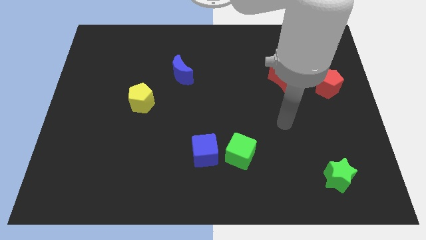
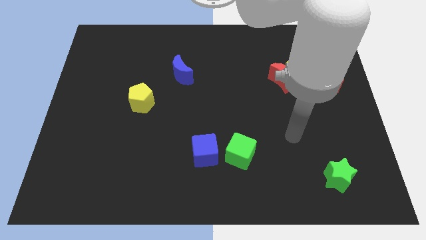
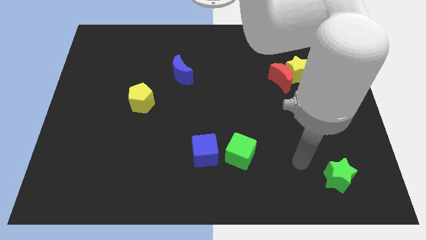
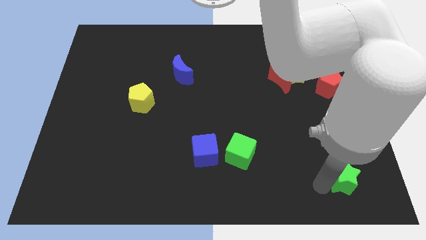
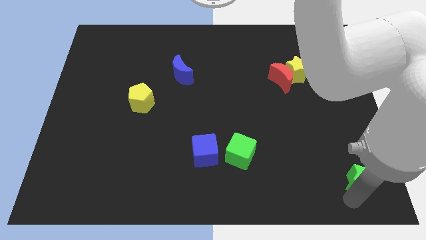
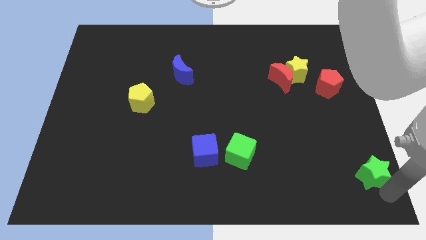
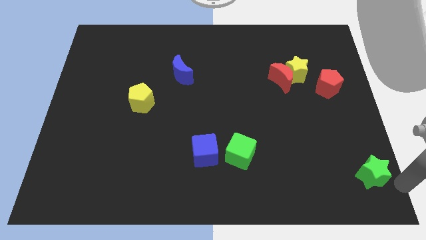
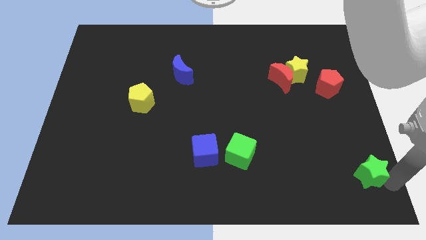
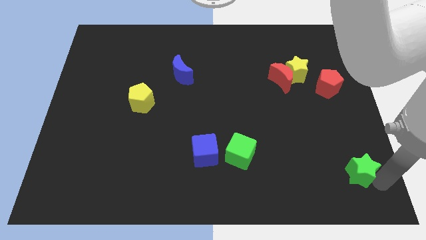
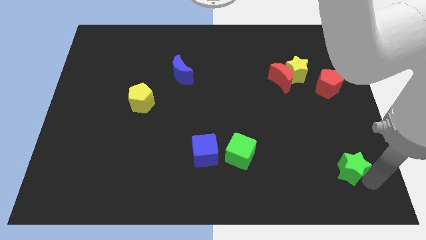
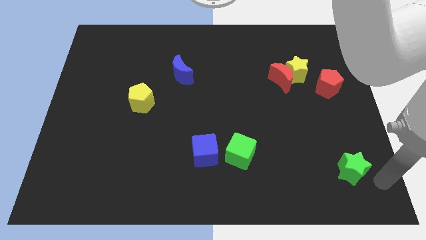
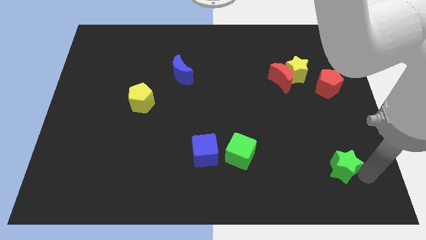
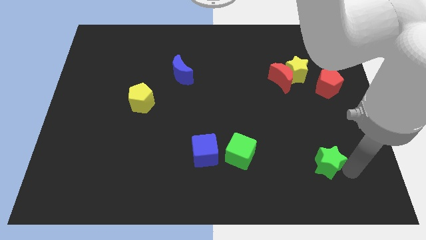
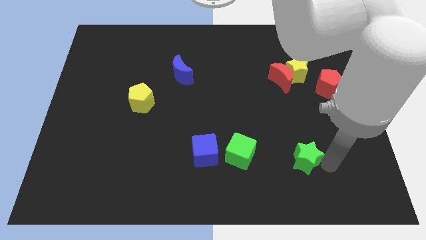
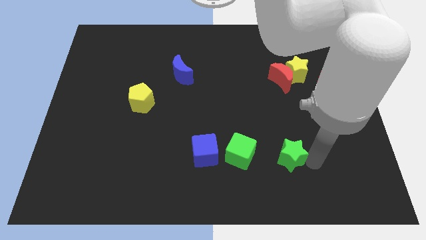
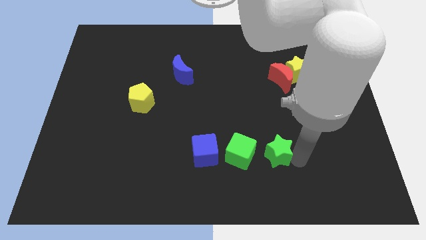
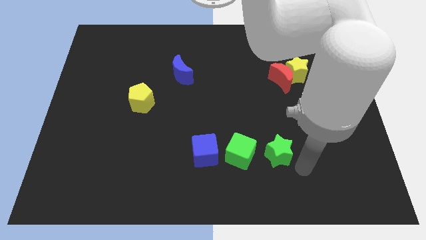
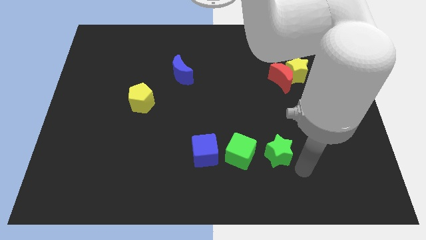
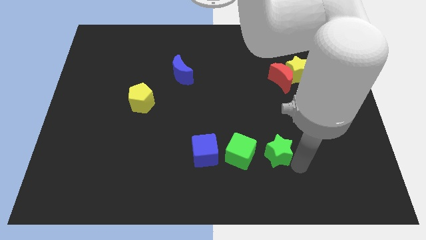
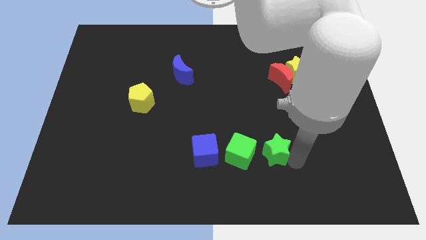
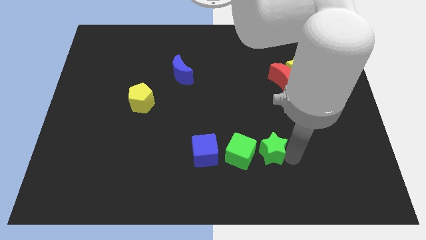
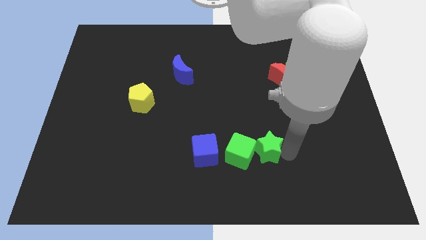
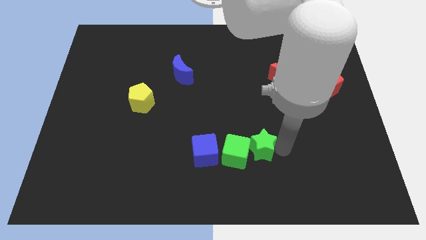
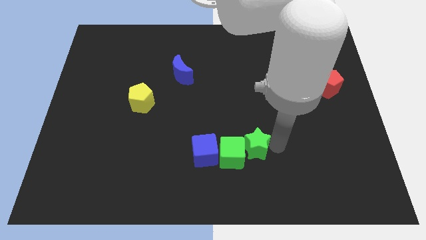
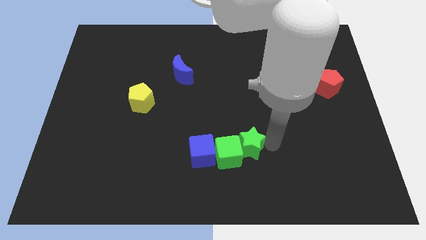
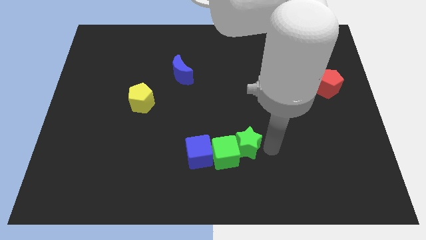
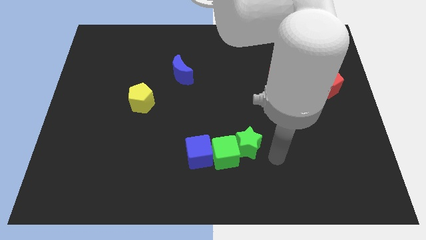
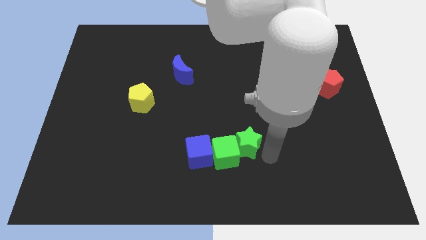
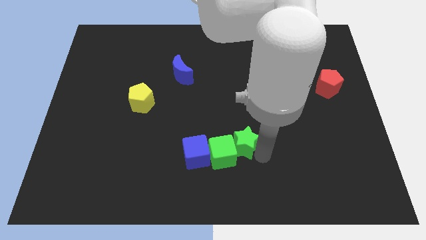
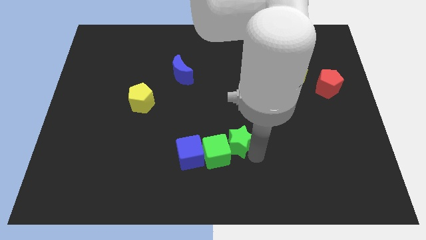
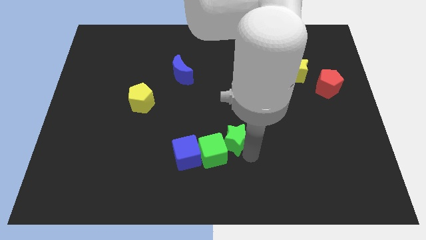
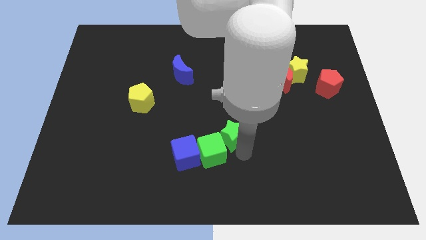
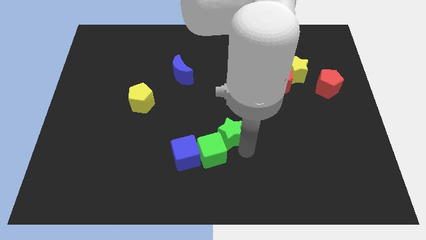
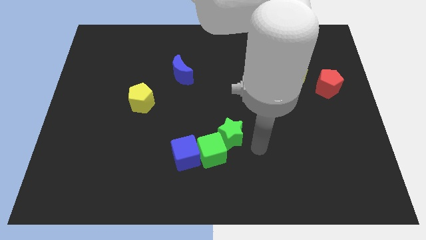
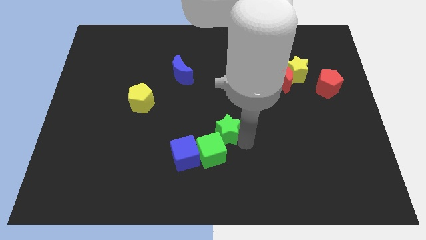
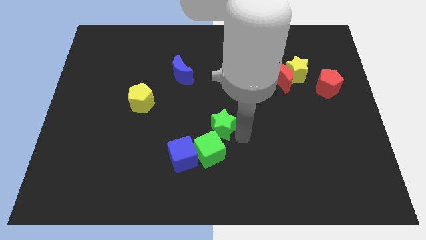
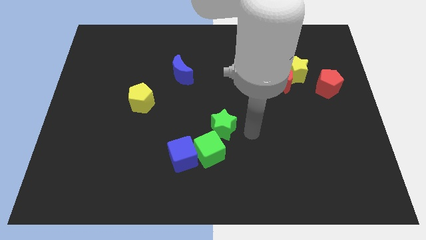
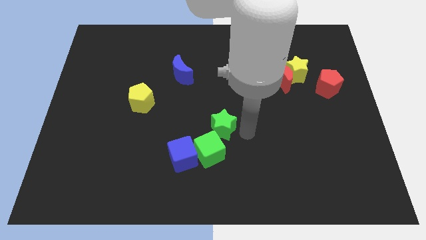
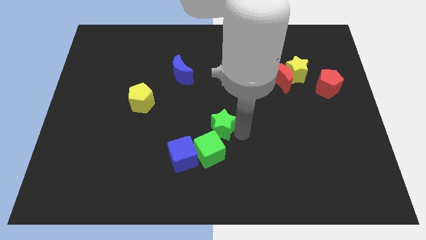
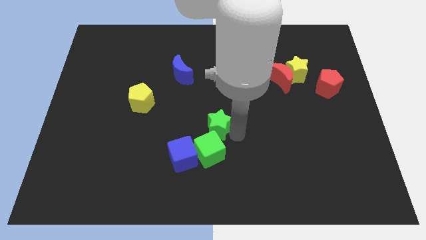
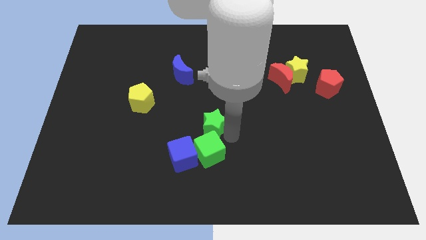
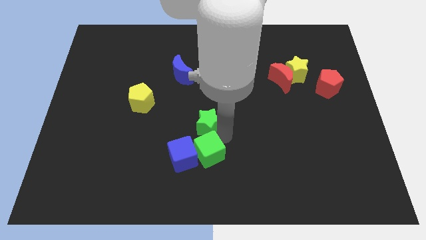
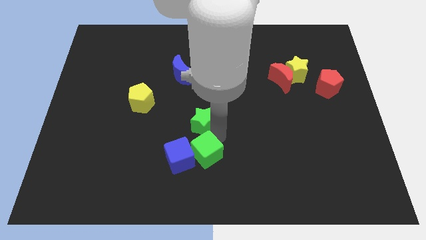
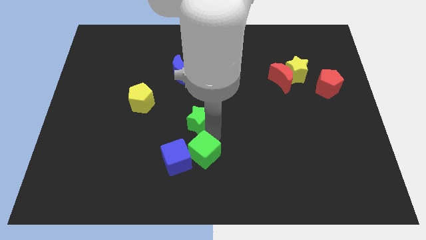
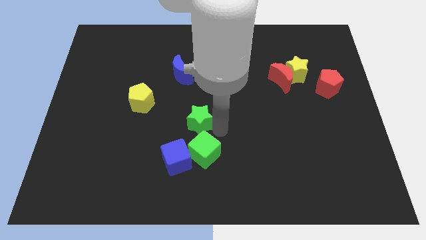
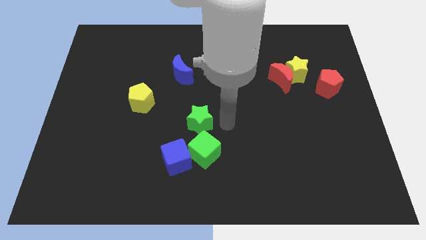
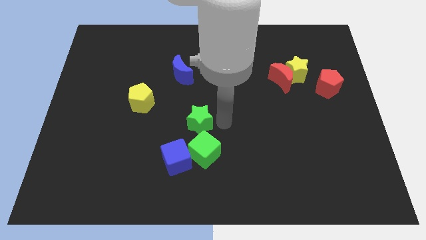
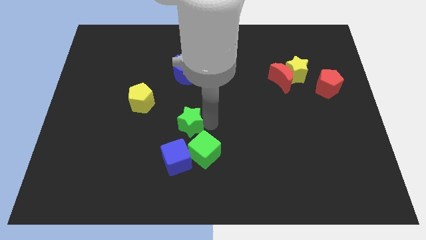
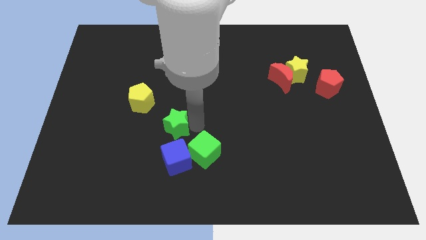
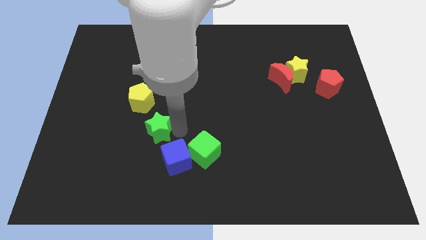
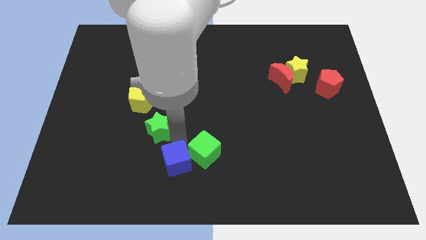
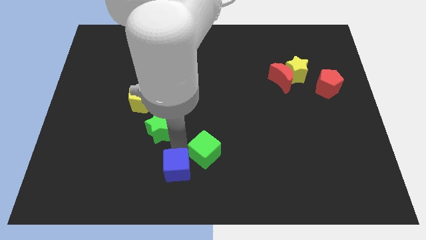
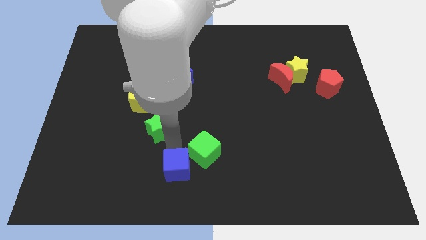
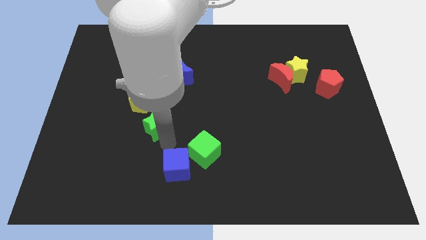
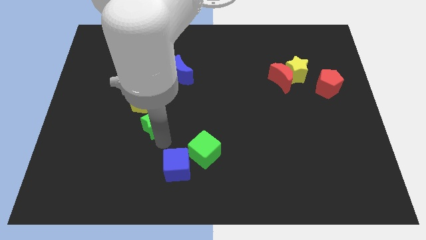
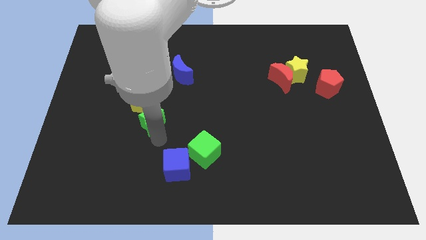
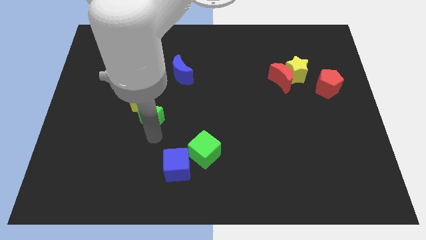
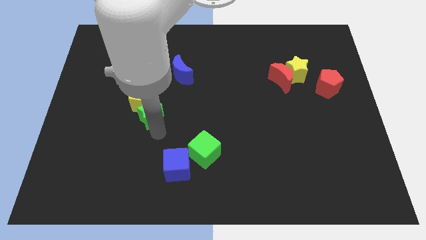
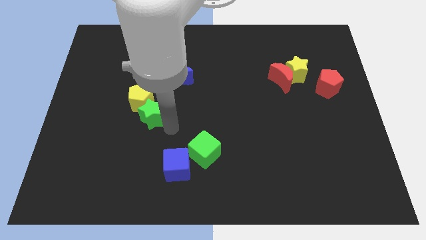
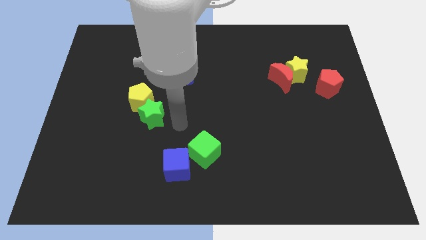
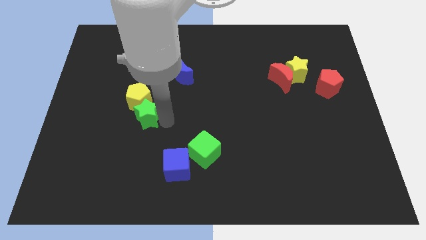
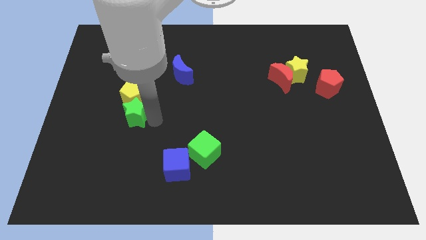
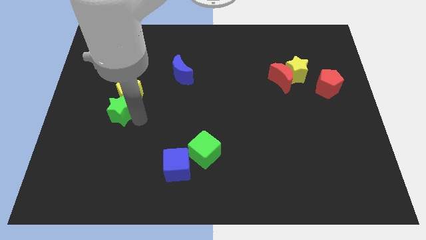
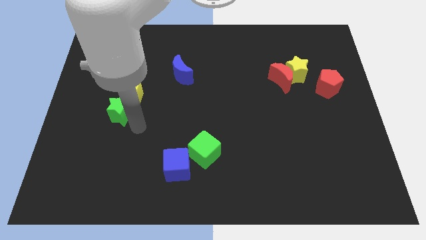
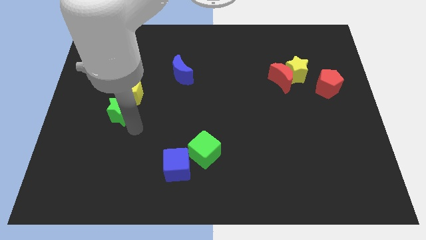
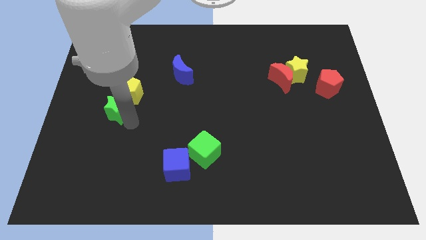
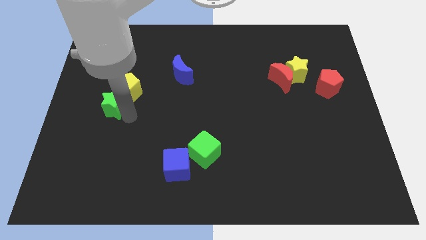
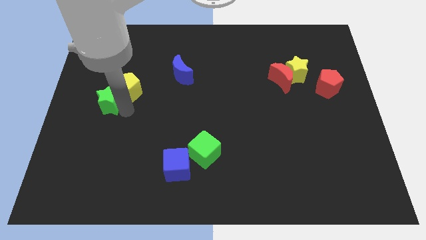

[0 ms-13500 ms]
put the green star to the left of the yellow pentagon
